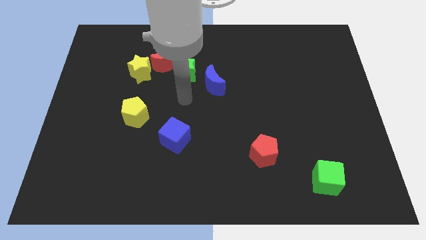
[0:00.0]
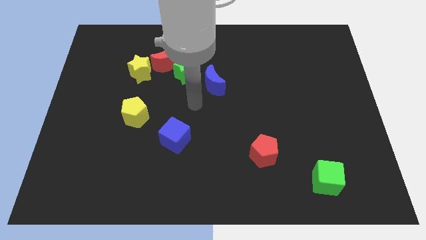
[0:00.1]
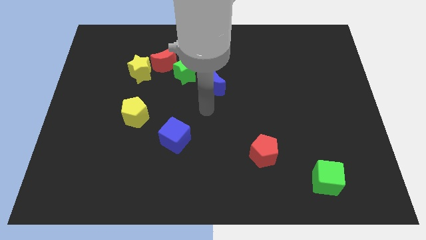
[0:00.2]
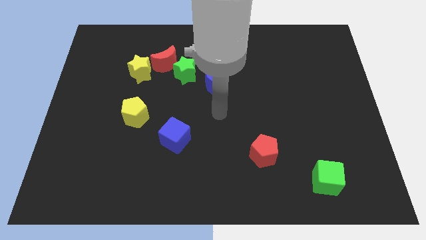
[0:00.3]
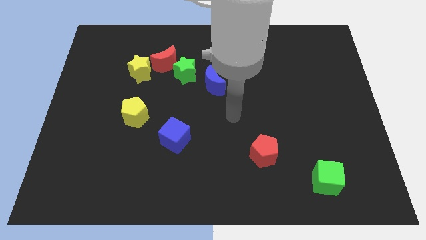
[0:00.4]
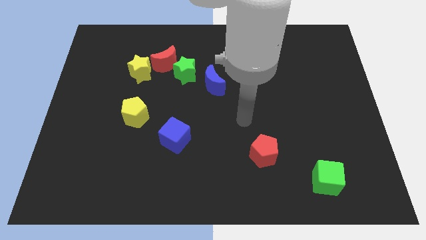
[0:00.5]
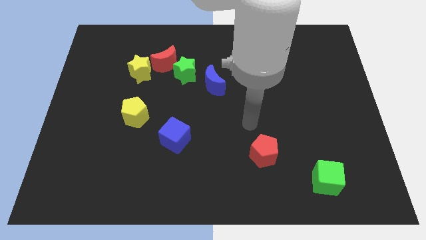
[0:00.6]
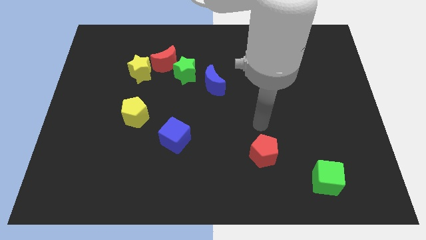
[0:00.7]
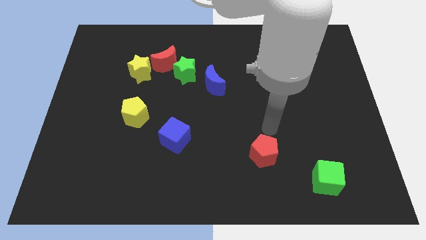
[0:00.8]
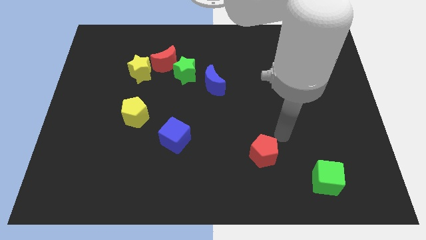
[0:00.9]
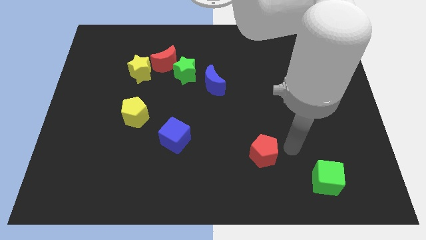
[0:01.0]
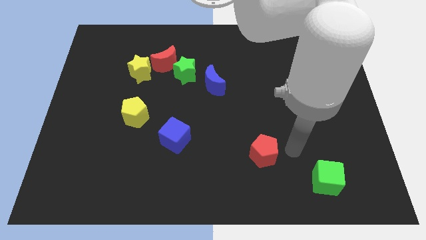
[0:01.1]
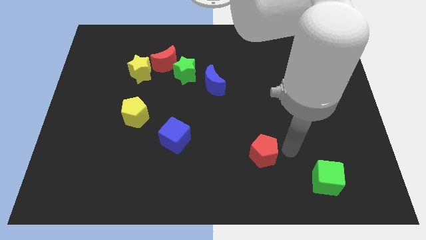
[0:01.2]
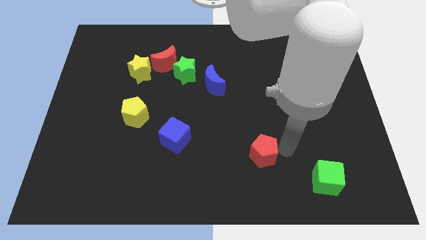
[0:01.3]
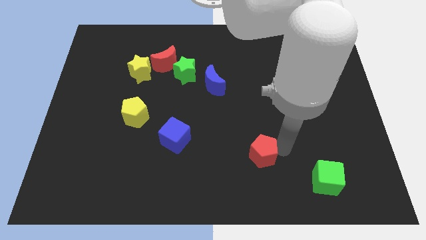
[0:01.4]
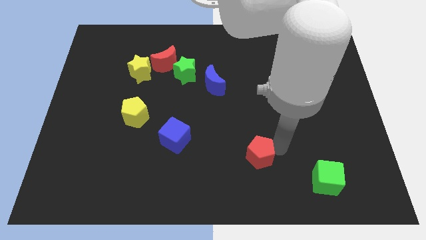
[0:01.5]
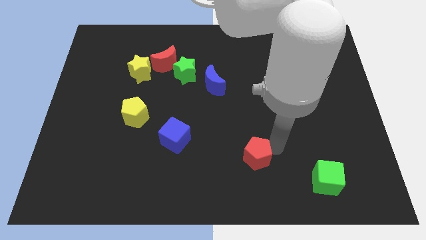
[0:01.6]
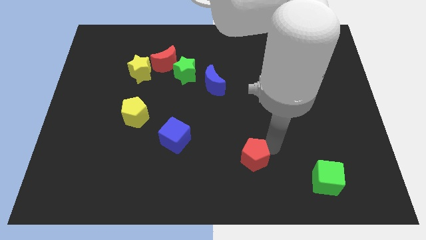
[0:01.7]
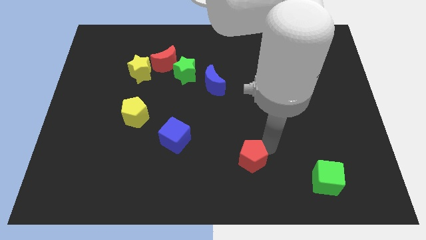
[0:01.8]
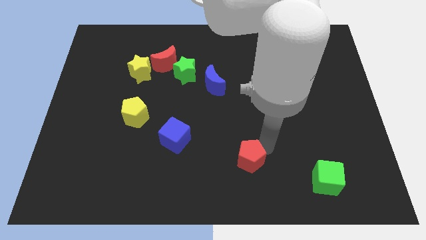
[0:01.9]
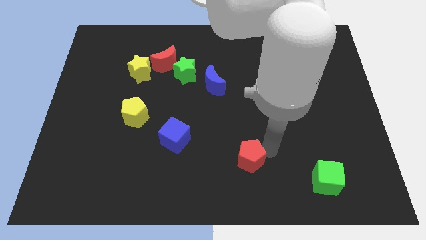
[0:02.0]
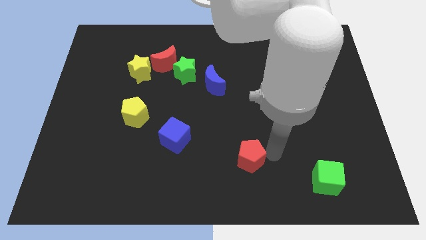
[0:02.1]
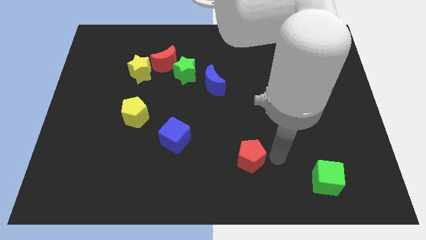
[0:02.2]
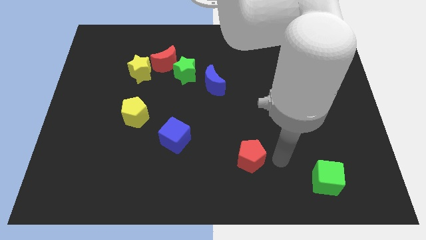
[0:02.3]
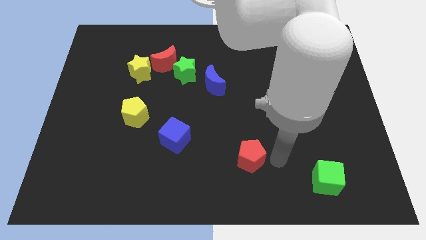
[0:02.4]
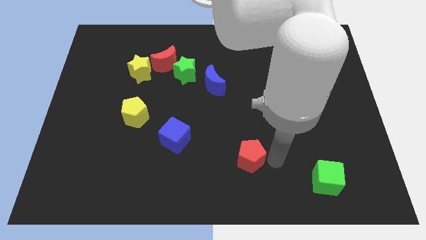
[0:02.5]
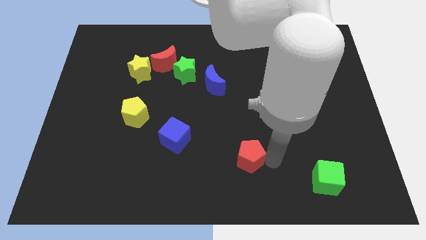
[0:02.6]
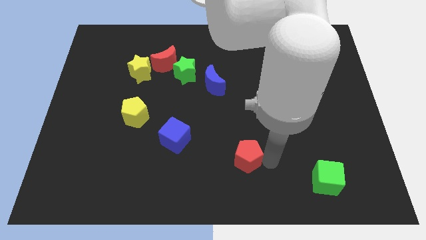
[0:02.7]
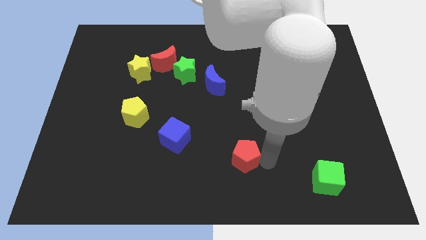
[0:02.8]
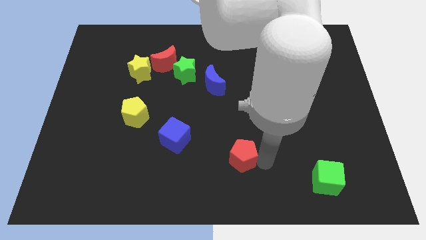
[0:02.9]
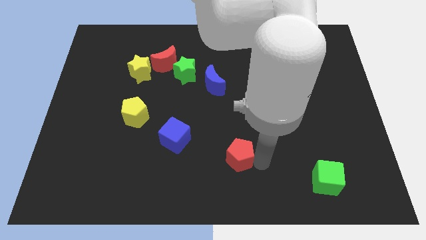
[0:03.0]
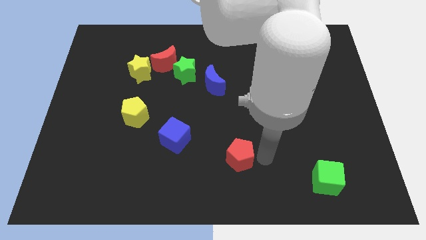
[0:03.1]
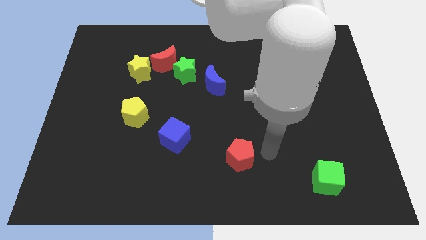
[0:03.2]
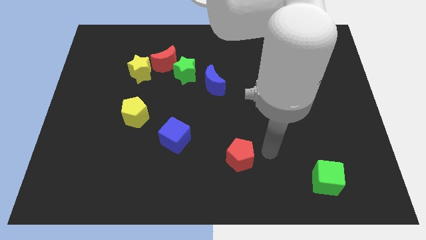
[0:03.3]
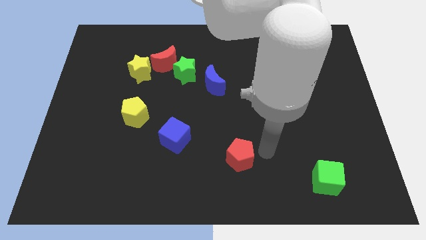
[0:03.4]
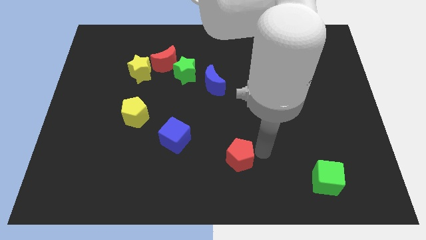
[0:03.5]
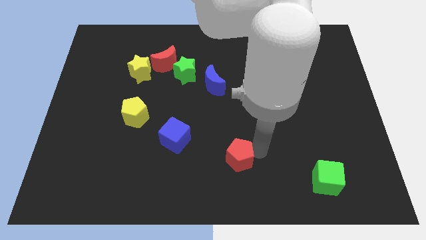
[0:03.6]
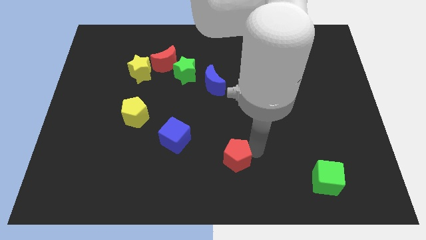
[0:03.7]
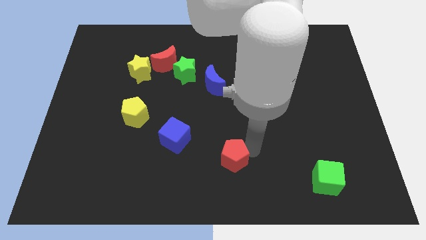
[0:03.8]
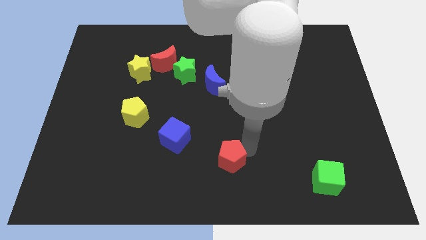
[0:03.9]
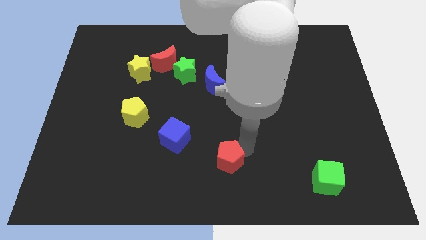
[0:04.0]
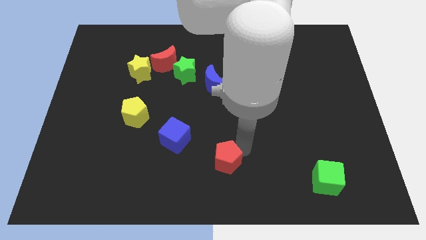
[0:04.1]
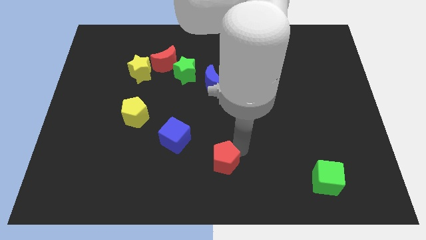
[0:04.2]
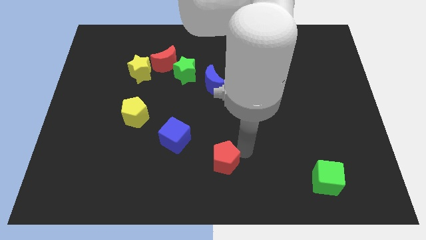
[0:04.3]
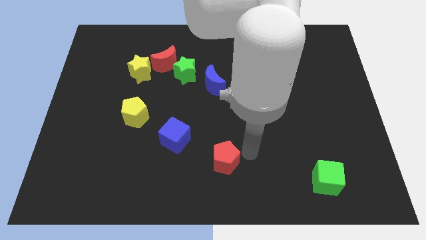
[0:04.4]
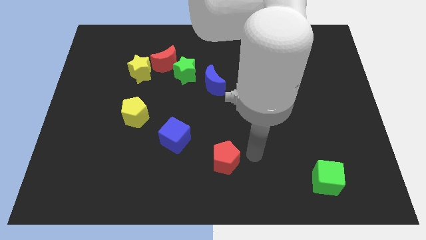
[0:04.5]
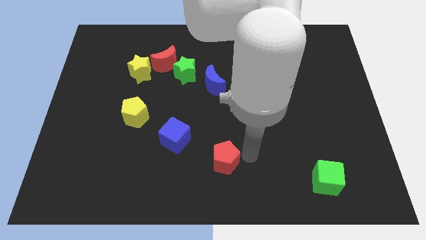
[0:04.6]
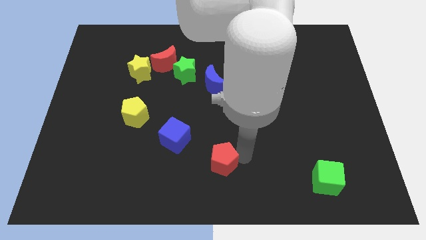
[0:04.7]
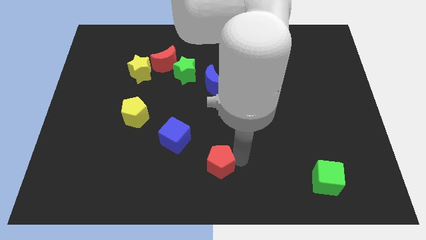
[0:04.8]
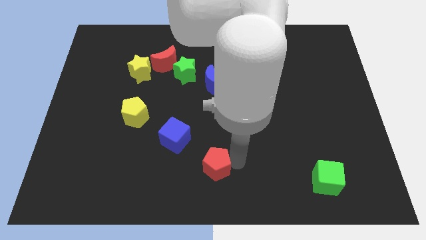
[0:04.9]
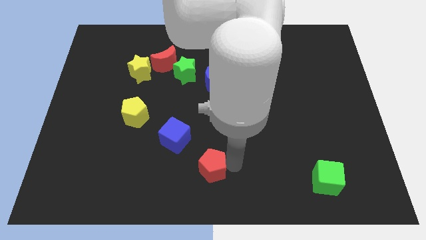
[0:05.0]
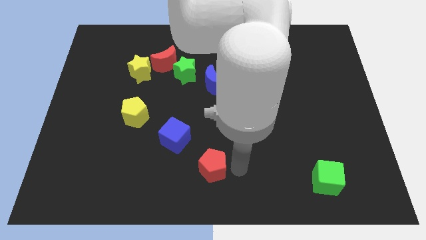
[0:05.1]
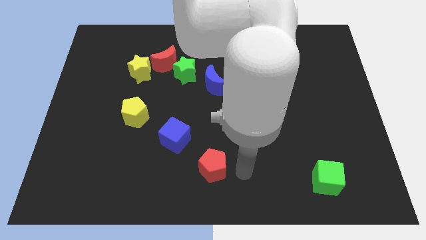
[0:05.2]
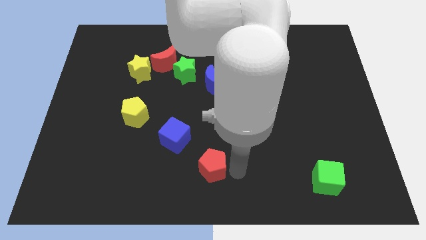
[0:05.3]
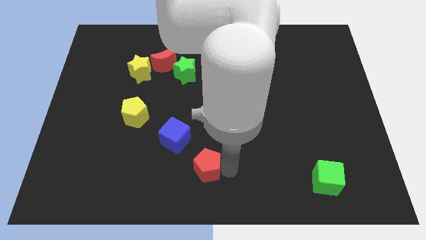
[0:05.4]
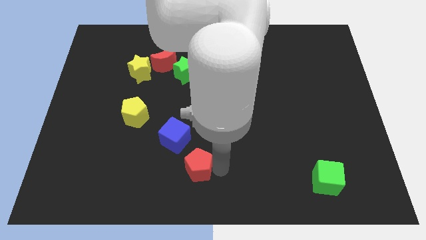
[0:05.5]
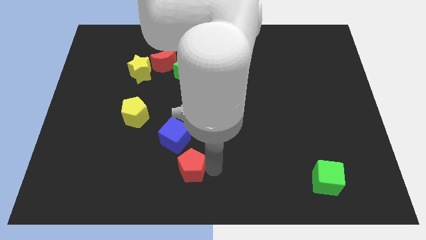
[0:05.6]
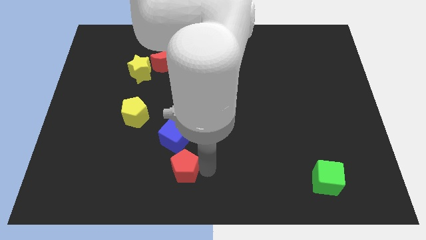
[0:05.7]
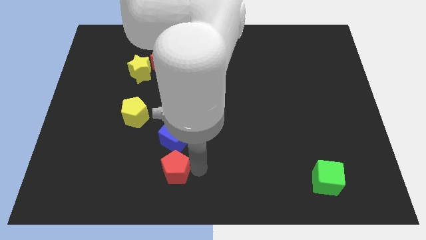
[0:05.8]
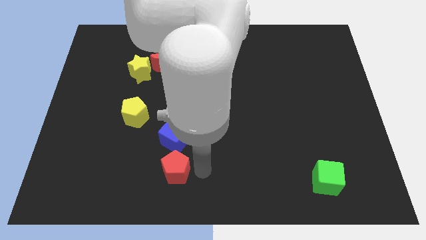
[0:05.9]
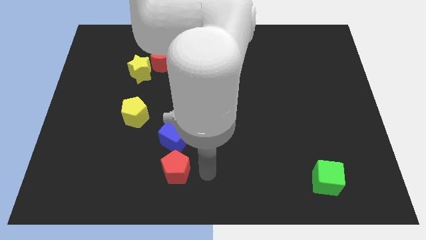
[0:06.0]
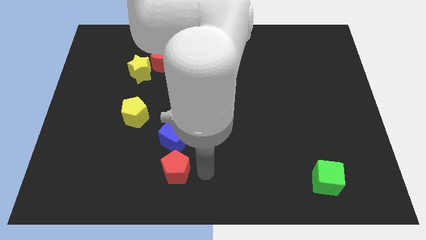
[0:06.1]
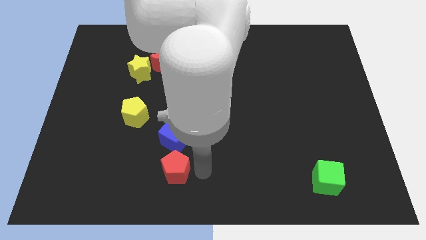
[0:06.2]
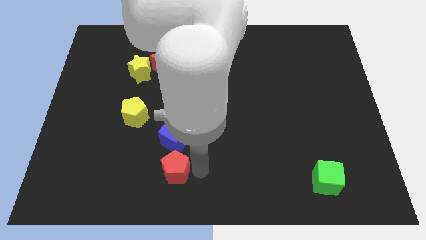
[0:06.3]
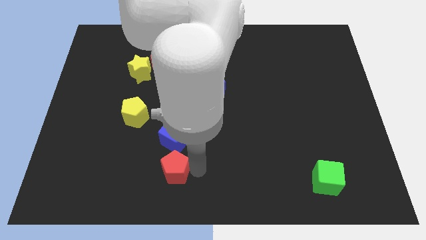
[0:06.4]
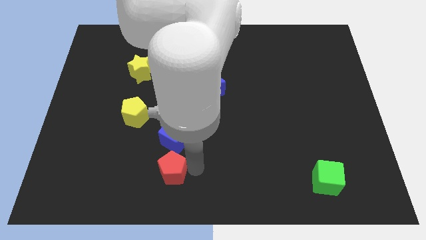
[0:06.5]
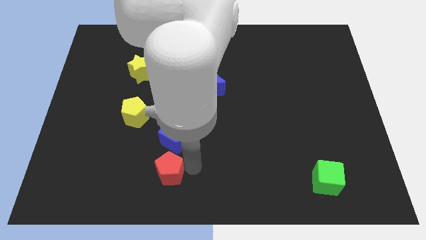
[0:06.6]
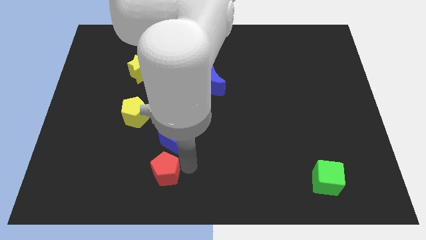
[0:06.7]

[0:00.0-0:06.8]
slide the red pentagon left

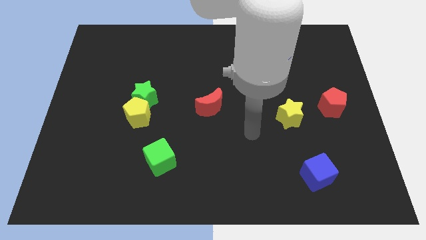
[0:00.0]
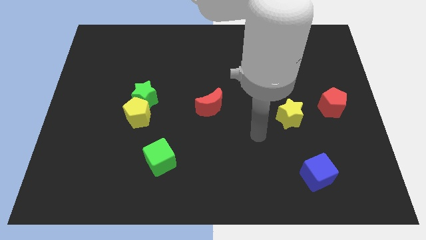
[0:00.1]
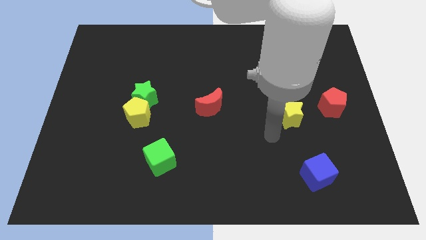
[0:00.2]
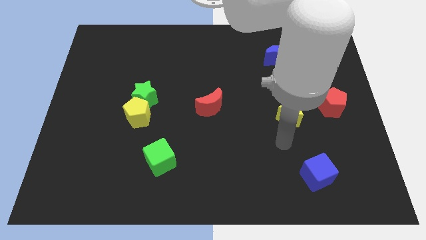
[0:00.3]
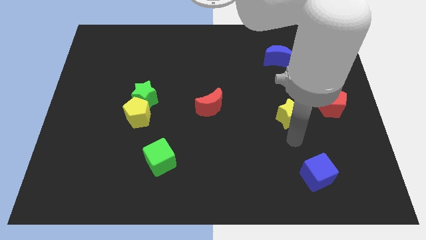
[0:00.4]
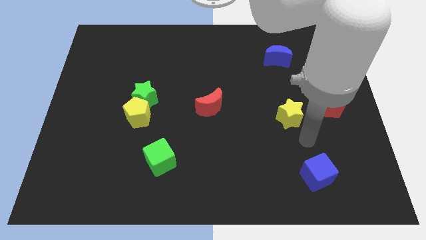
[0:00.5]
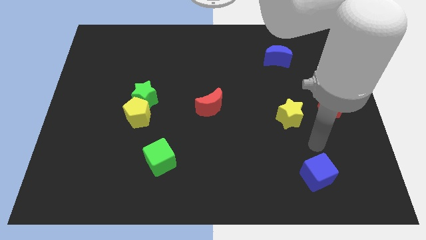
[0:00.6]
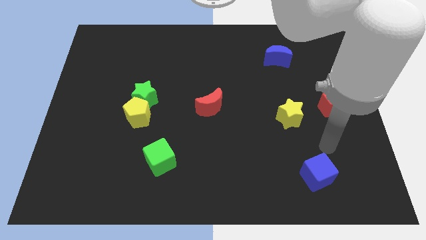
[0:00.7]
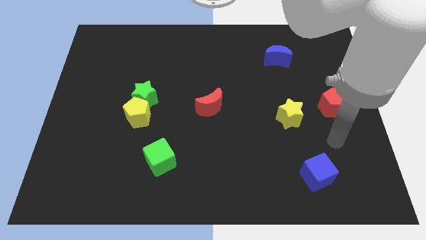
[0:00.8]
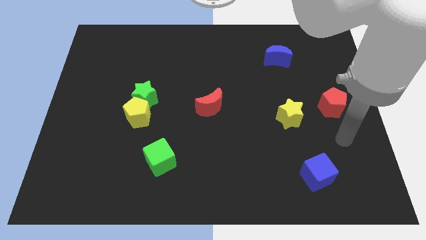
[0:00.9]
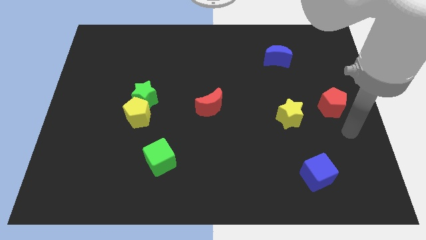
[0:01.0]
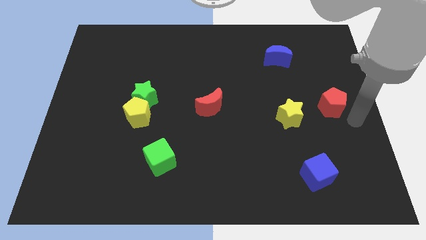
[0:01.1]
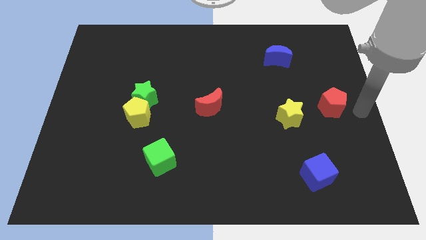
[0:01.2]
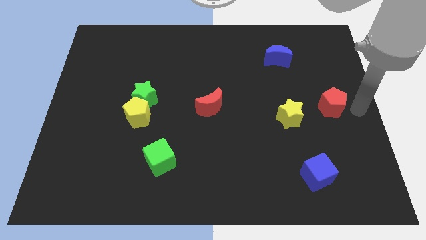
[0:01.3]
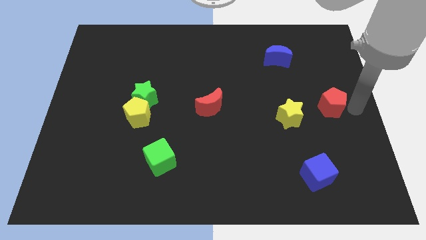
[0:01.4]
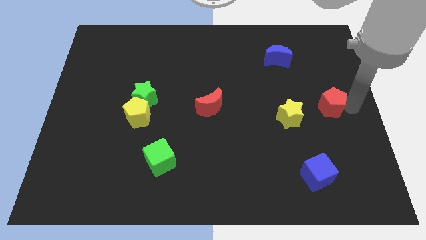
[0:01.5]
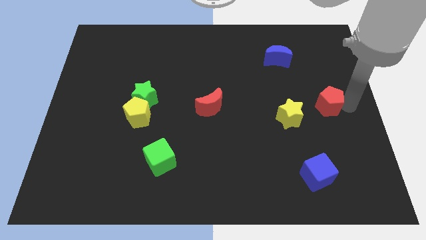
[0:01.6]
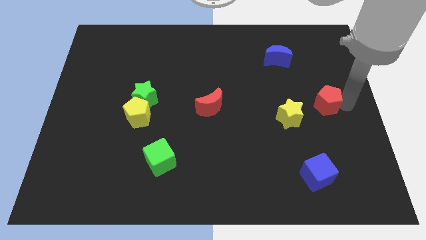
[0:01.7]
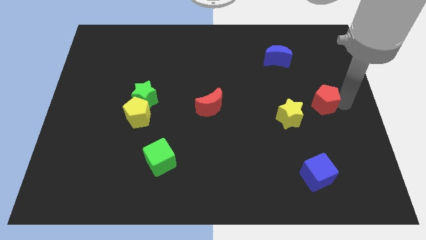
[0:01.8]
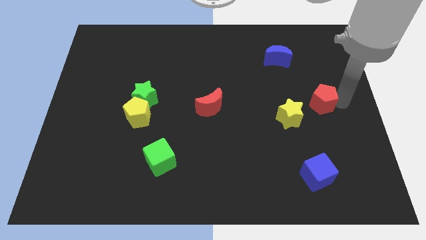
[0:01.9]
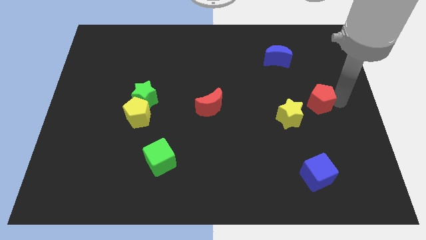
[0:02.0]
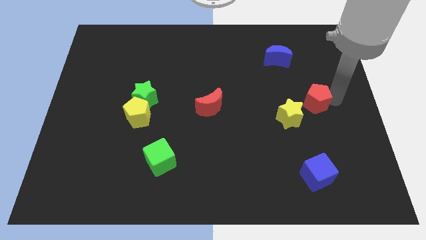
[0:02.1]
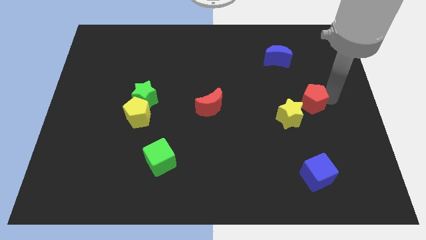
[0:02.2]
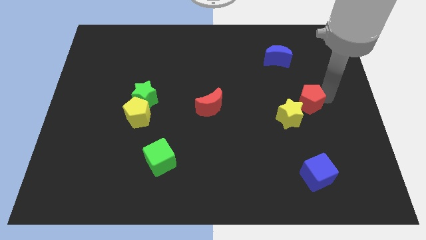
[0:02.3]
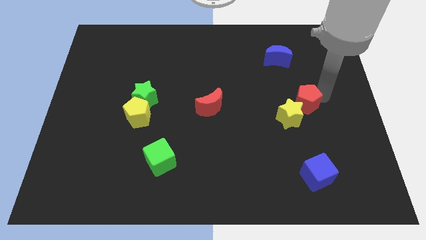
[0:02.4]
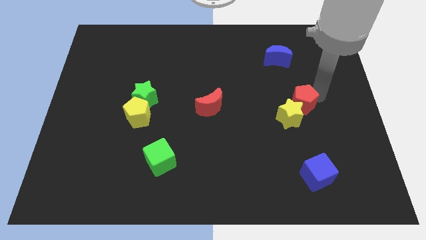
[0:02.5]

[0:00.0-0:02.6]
move the red pentagon to the left a little bit
